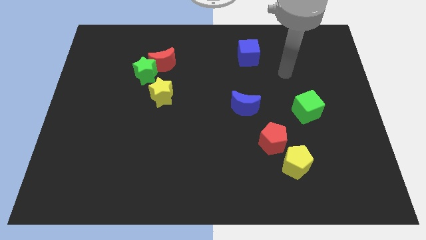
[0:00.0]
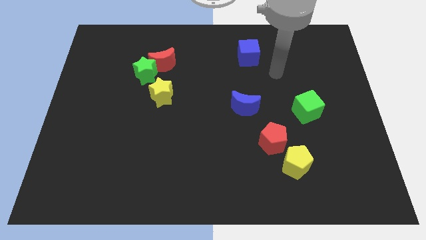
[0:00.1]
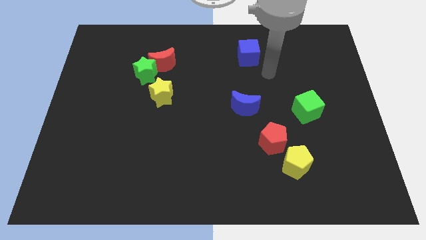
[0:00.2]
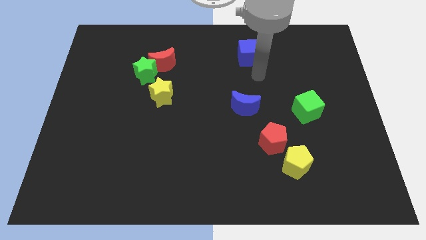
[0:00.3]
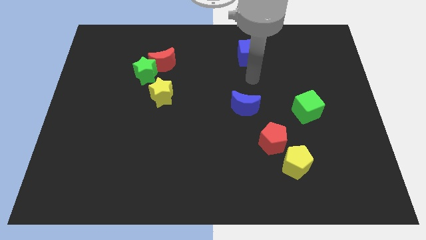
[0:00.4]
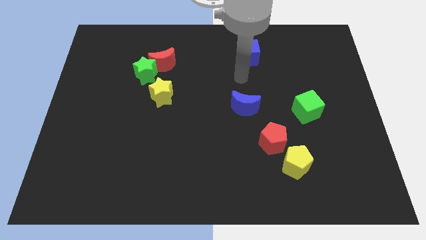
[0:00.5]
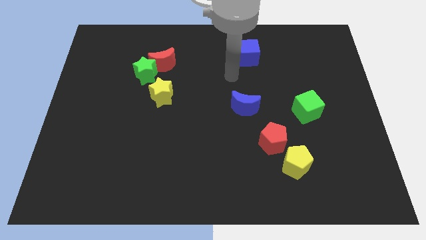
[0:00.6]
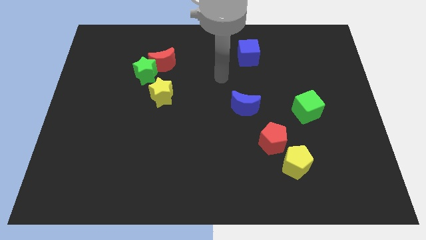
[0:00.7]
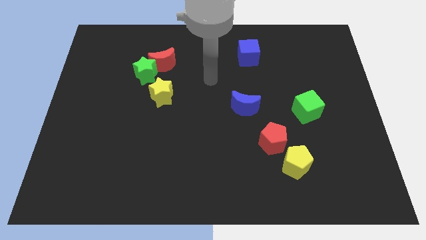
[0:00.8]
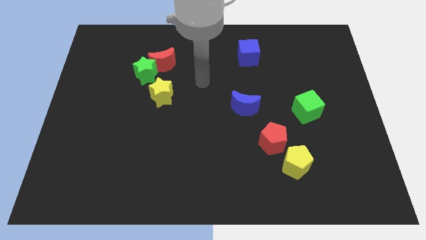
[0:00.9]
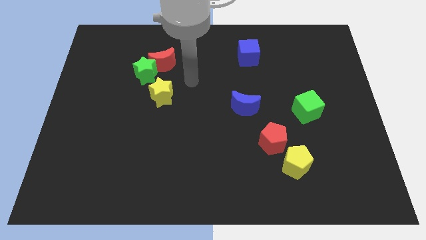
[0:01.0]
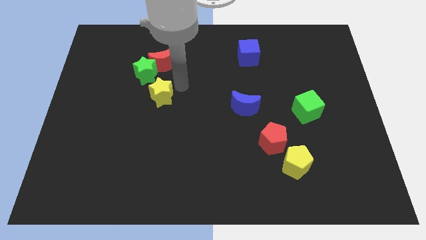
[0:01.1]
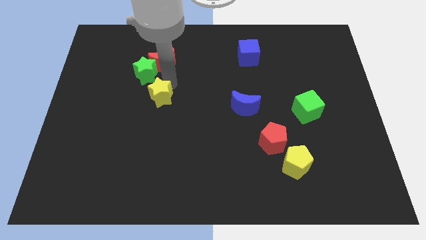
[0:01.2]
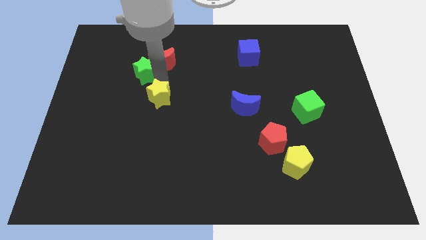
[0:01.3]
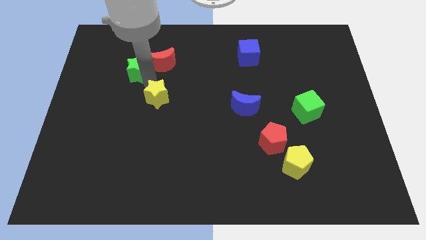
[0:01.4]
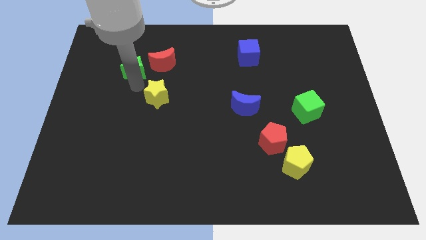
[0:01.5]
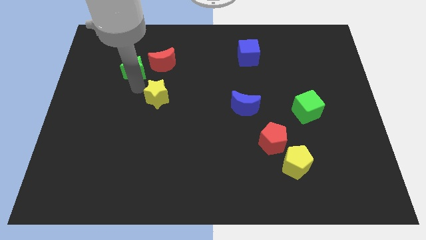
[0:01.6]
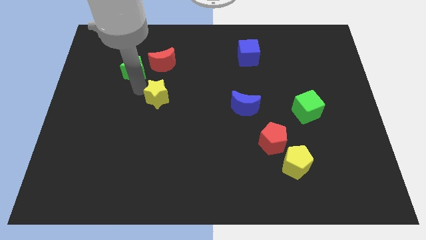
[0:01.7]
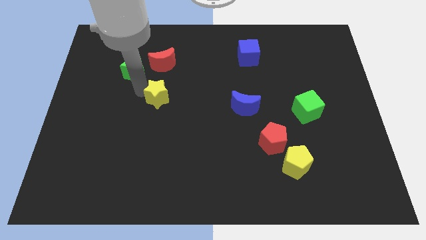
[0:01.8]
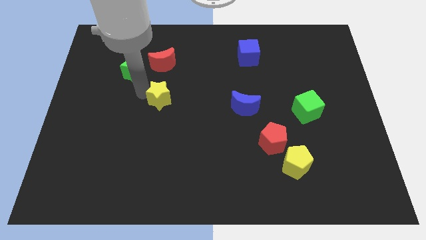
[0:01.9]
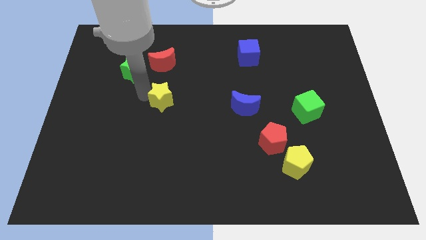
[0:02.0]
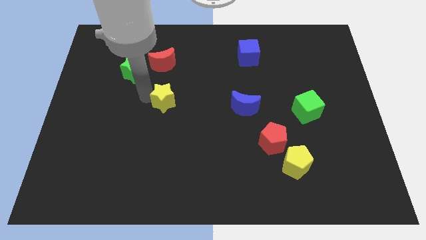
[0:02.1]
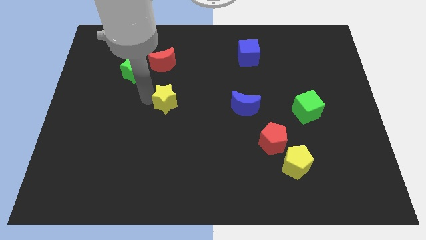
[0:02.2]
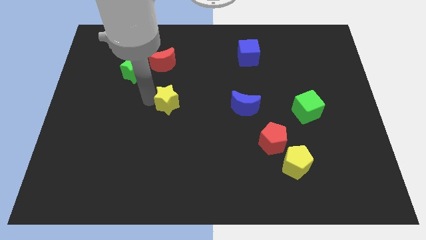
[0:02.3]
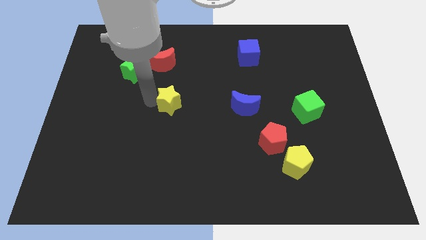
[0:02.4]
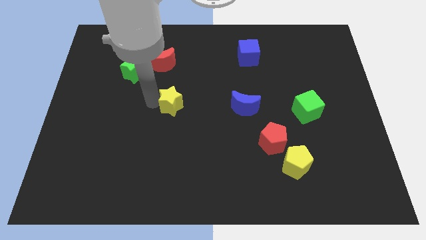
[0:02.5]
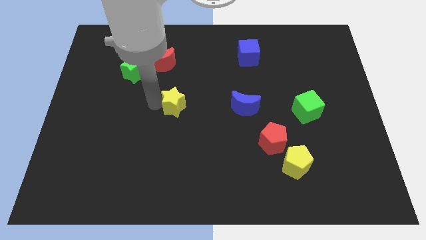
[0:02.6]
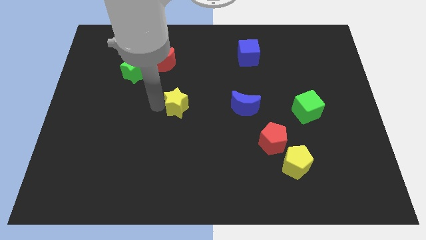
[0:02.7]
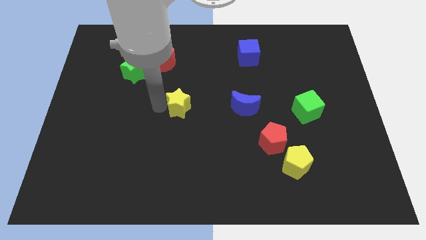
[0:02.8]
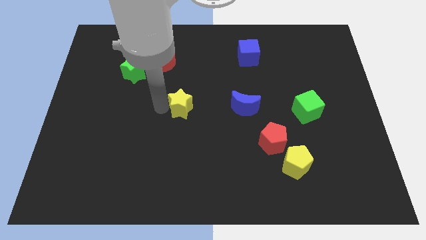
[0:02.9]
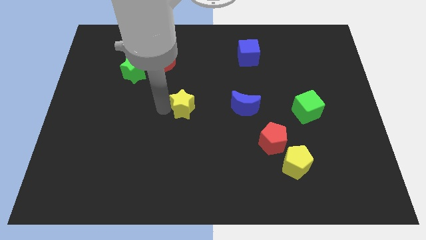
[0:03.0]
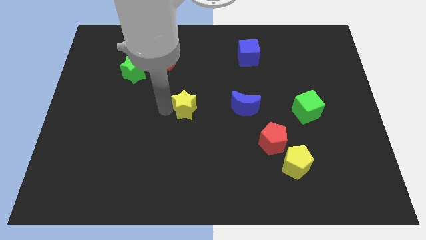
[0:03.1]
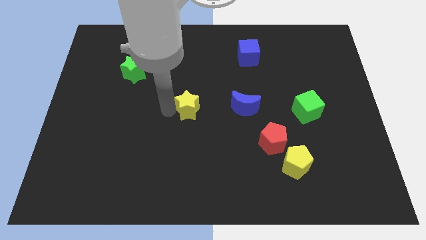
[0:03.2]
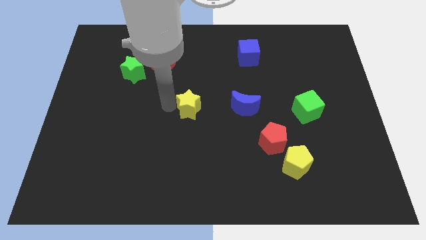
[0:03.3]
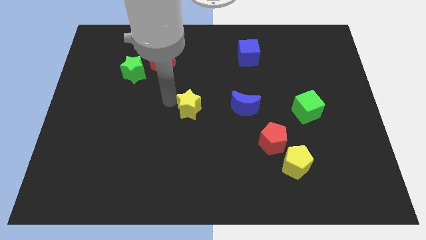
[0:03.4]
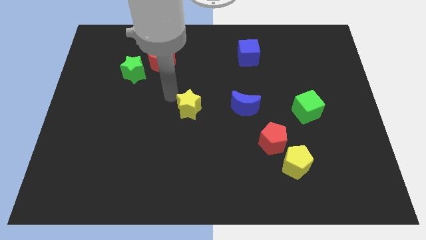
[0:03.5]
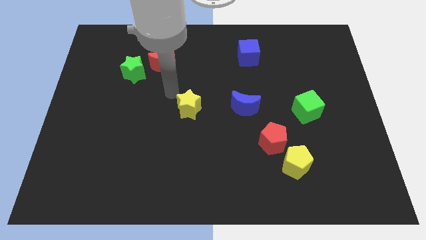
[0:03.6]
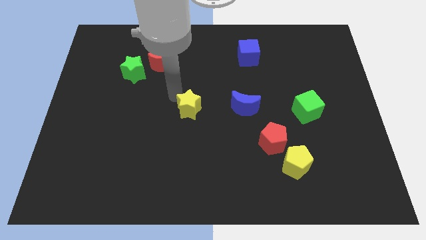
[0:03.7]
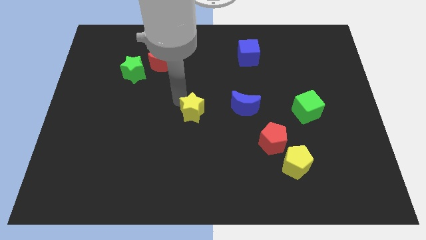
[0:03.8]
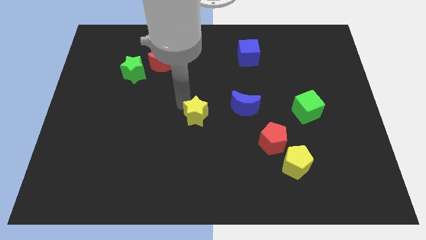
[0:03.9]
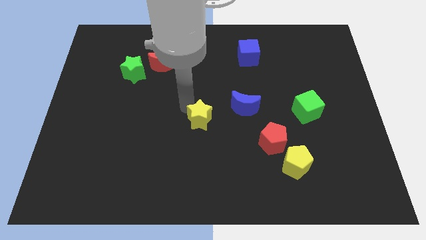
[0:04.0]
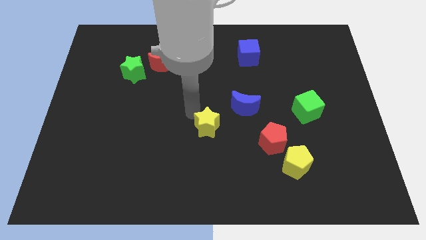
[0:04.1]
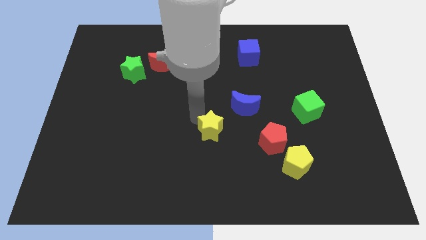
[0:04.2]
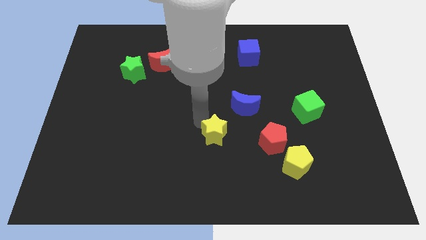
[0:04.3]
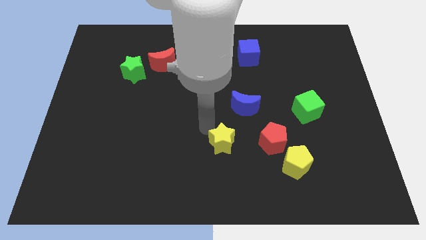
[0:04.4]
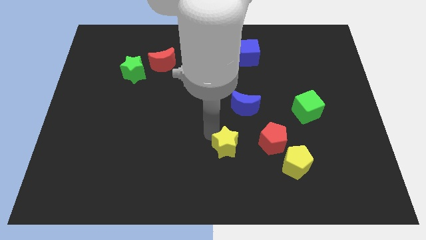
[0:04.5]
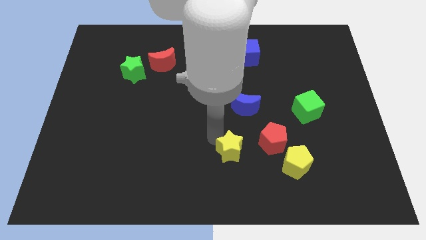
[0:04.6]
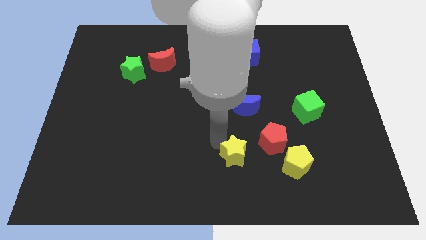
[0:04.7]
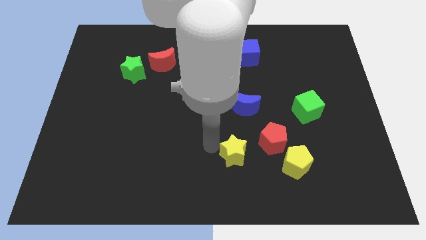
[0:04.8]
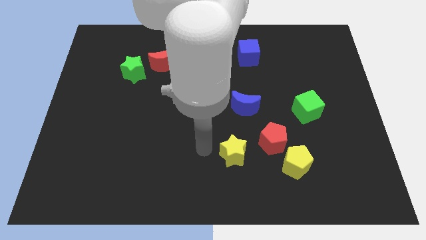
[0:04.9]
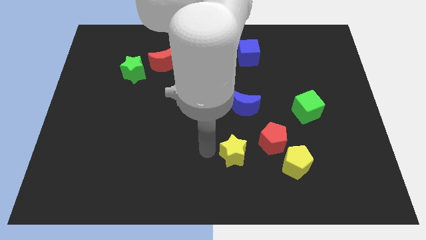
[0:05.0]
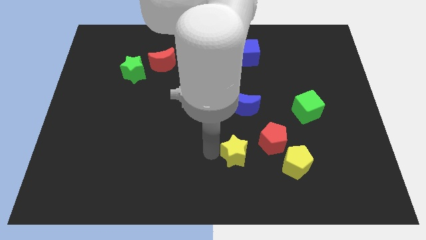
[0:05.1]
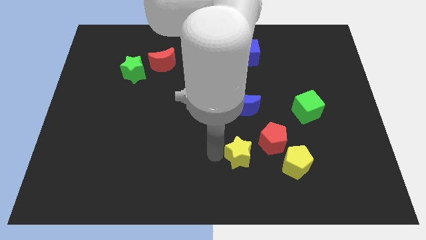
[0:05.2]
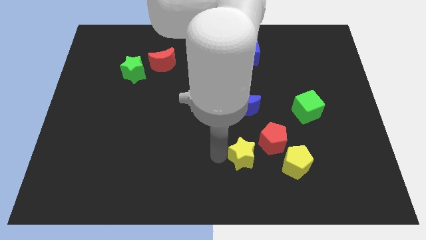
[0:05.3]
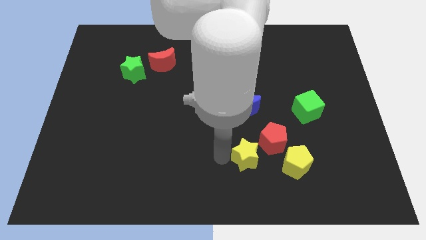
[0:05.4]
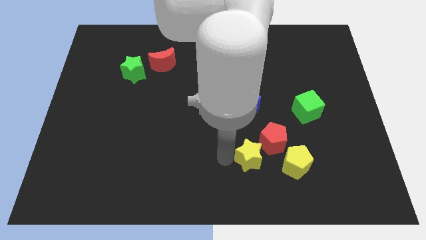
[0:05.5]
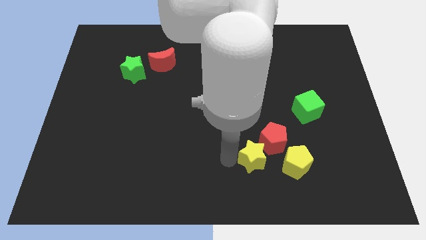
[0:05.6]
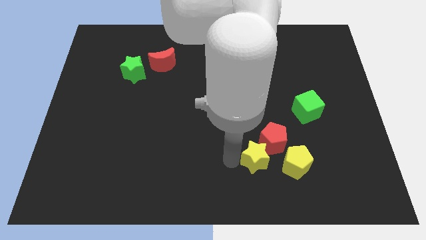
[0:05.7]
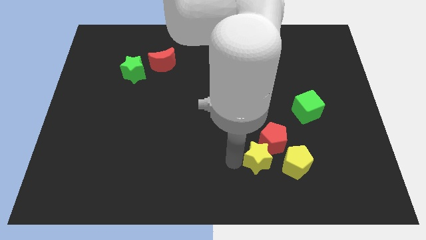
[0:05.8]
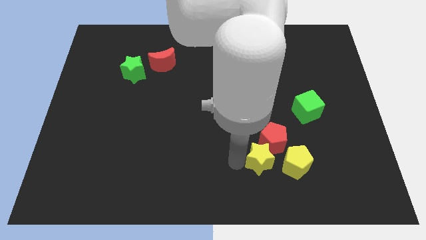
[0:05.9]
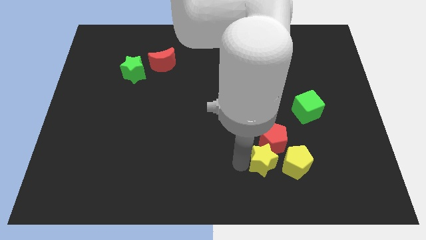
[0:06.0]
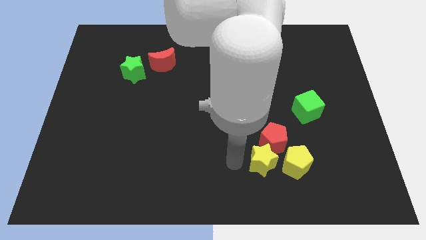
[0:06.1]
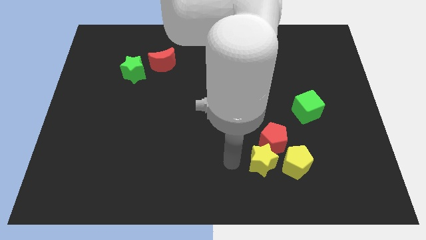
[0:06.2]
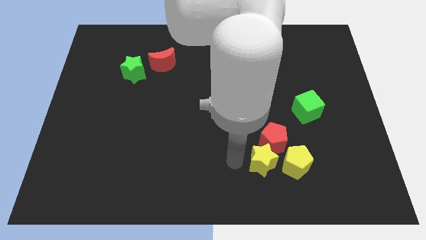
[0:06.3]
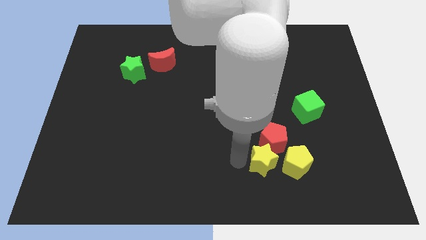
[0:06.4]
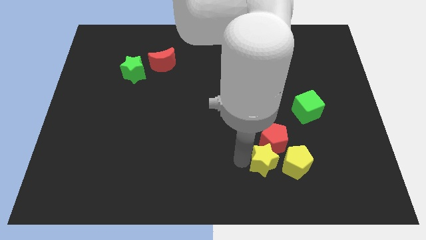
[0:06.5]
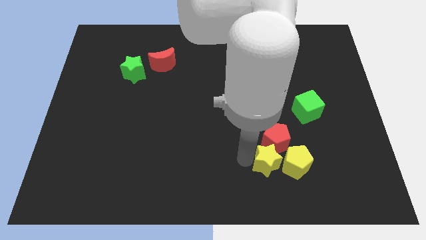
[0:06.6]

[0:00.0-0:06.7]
move the yellow star close to the yellow pentagon
